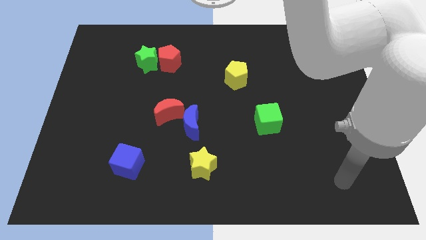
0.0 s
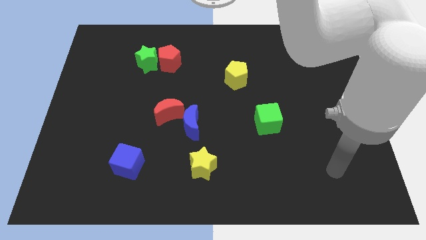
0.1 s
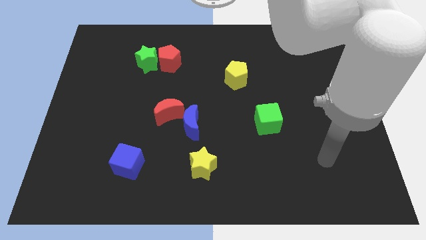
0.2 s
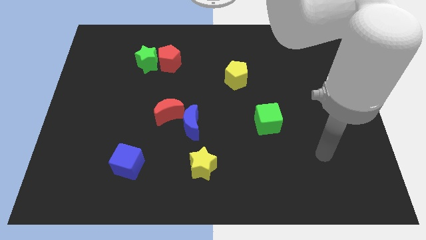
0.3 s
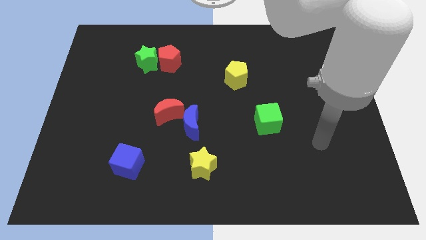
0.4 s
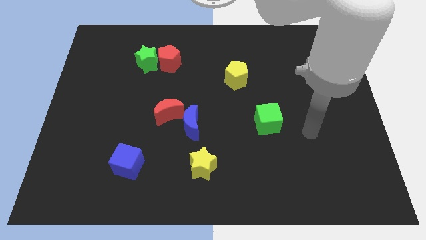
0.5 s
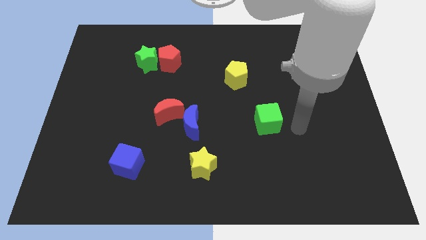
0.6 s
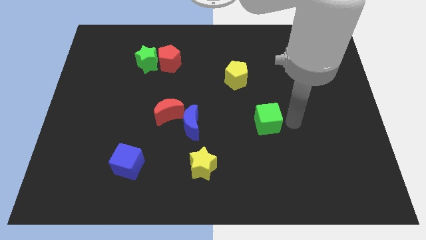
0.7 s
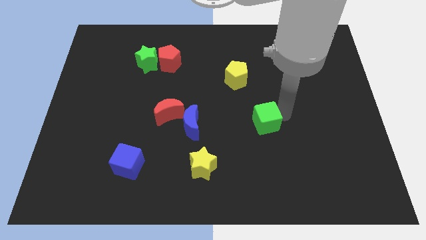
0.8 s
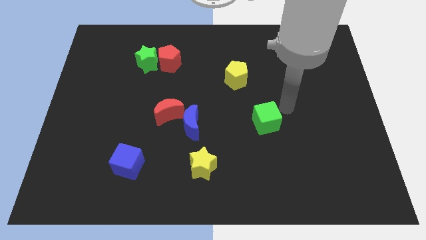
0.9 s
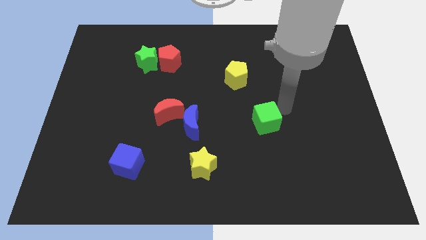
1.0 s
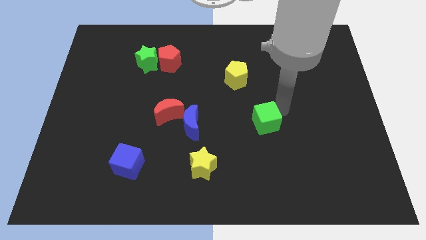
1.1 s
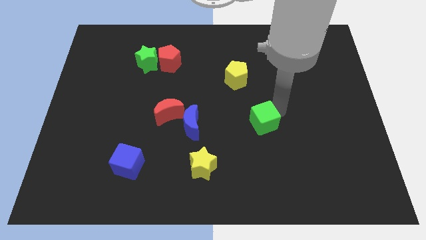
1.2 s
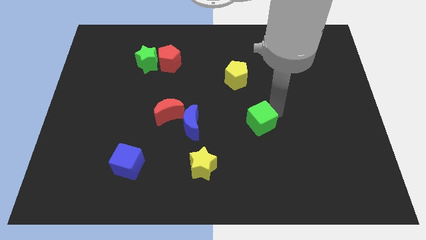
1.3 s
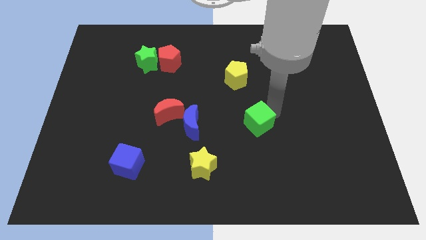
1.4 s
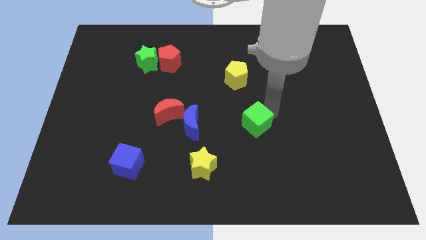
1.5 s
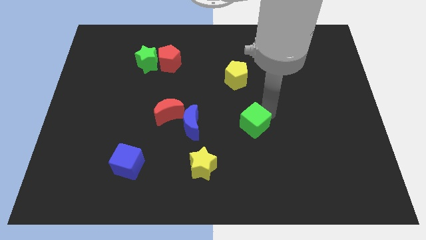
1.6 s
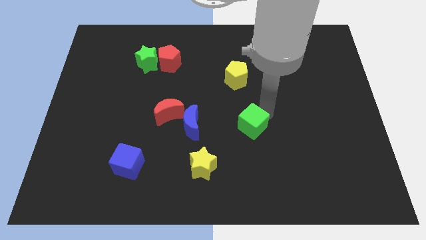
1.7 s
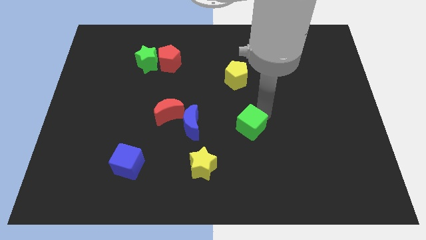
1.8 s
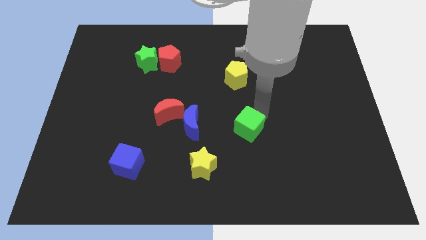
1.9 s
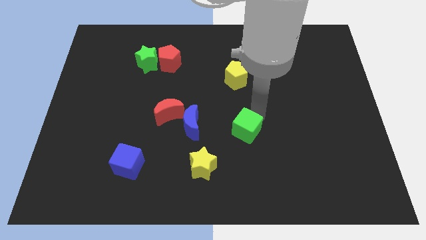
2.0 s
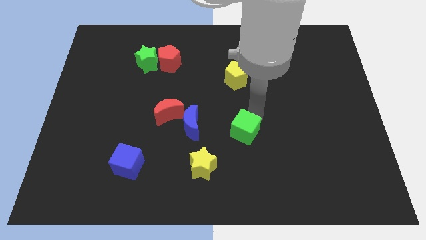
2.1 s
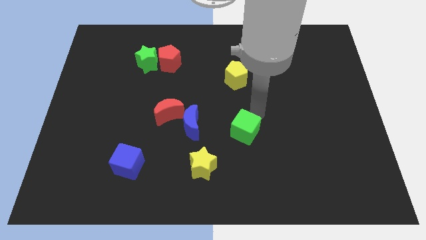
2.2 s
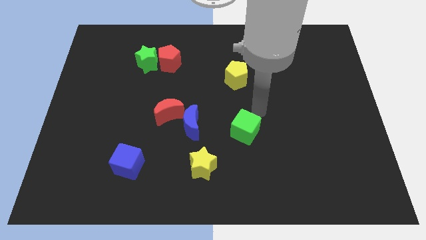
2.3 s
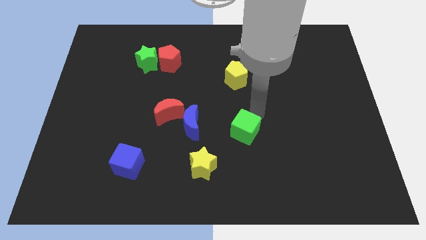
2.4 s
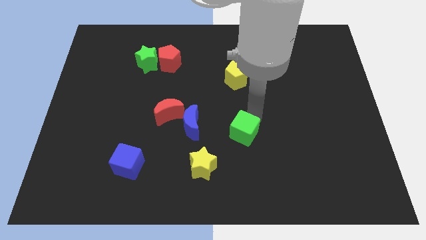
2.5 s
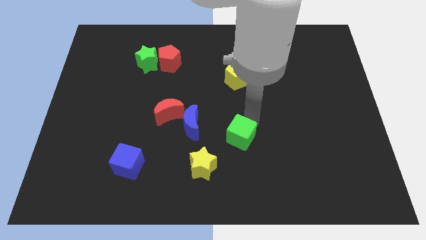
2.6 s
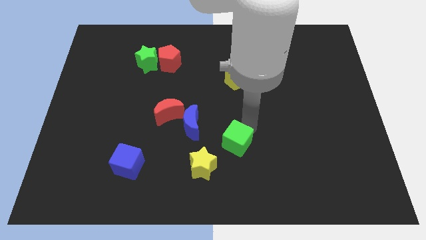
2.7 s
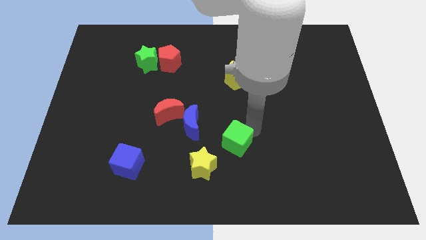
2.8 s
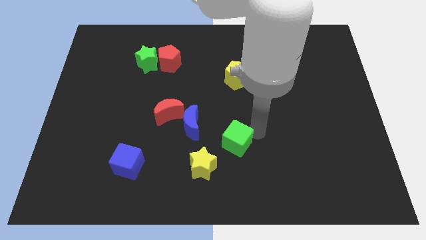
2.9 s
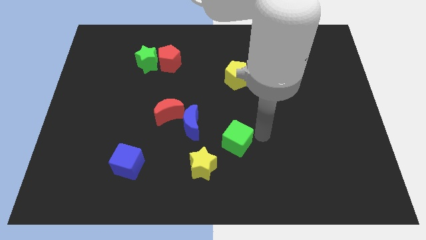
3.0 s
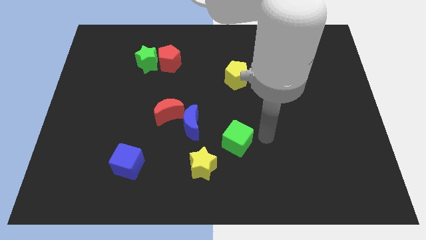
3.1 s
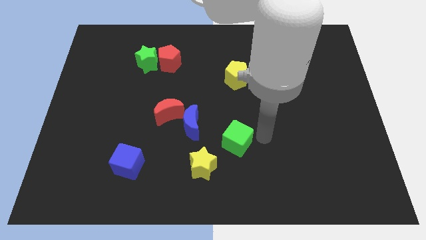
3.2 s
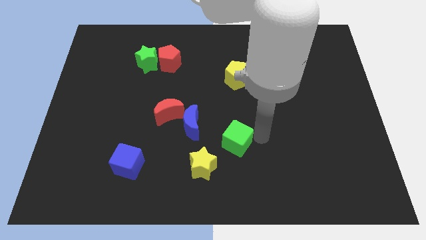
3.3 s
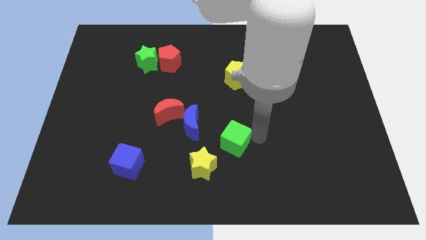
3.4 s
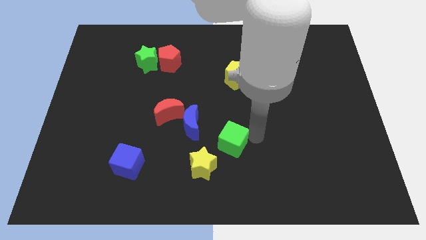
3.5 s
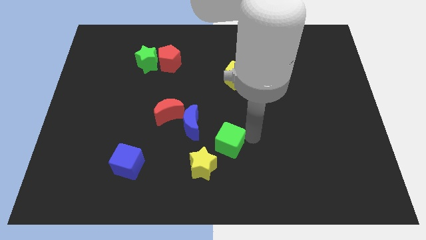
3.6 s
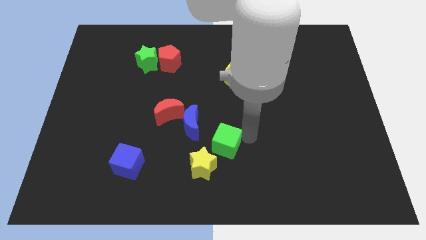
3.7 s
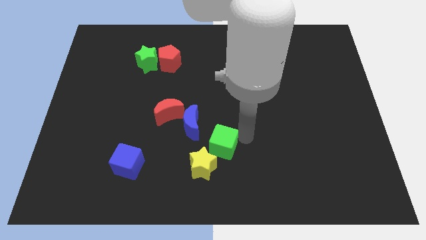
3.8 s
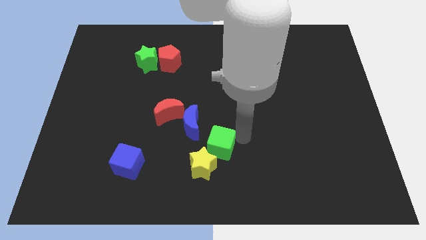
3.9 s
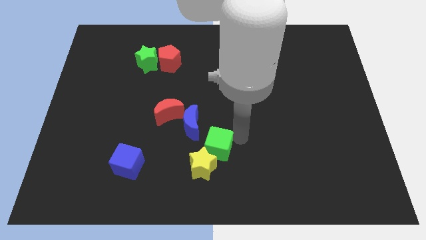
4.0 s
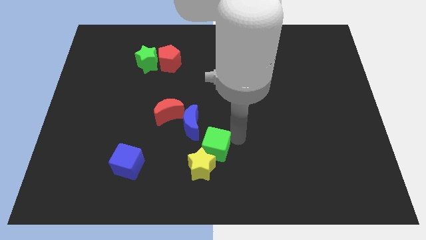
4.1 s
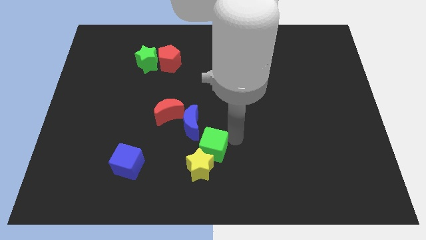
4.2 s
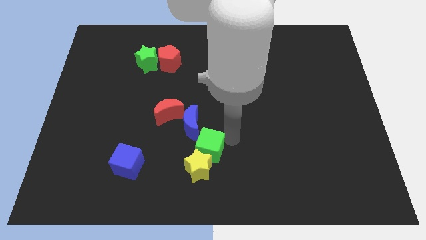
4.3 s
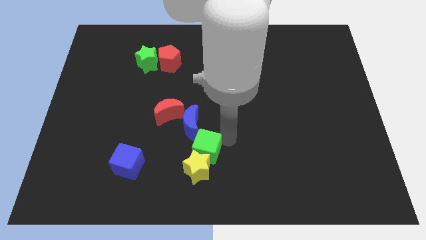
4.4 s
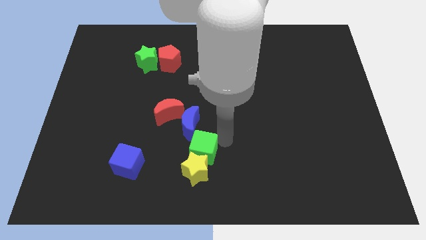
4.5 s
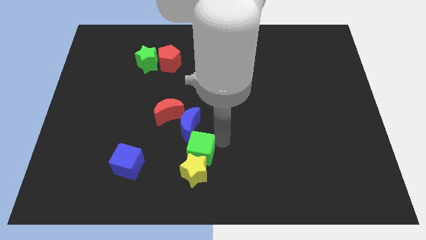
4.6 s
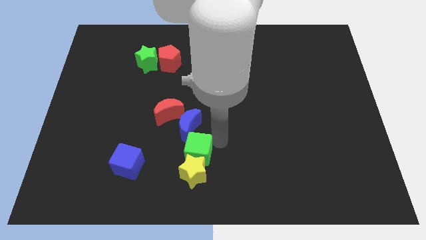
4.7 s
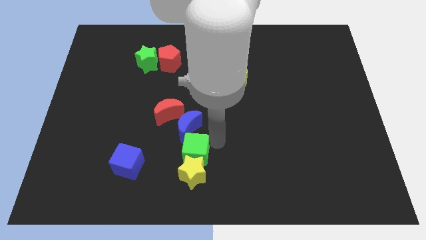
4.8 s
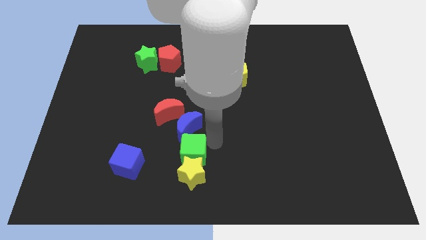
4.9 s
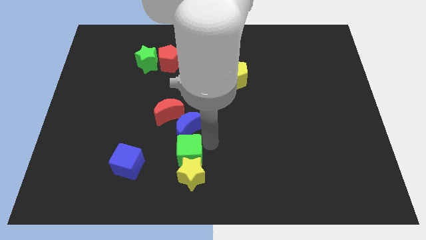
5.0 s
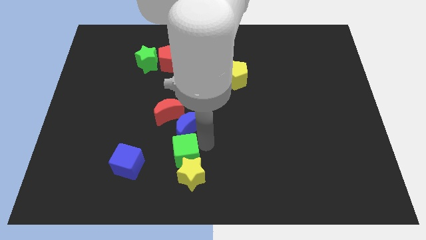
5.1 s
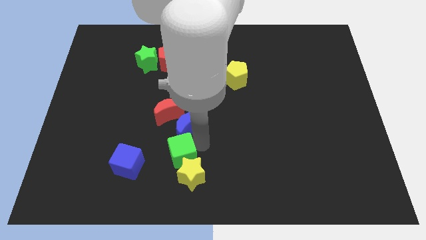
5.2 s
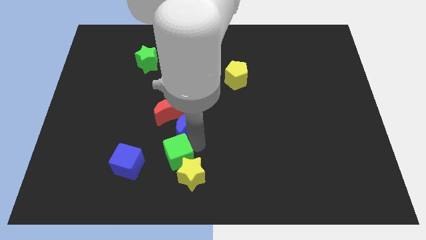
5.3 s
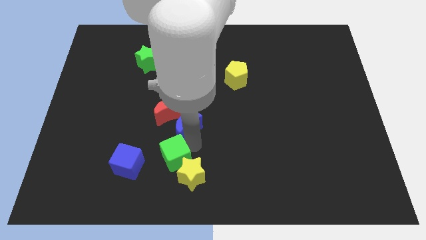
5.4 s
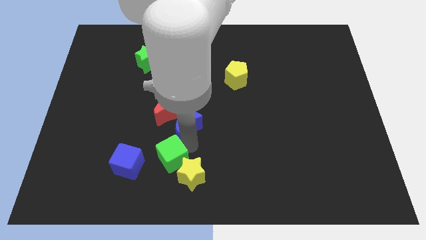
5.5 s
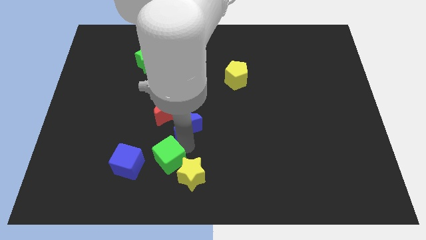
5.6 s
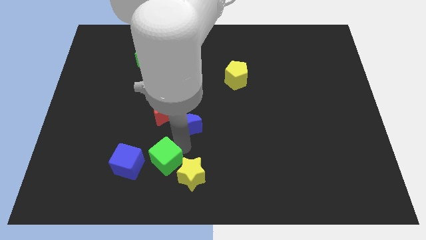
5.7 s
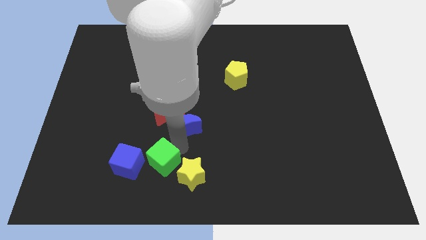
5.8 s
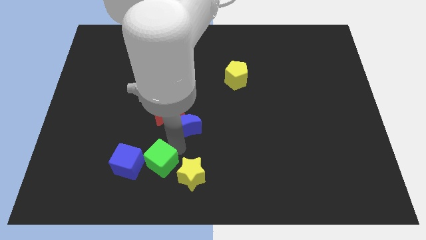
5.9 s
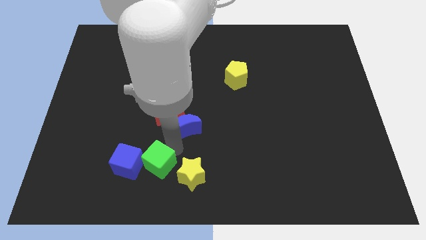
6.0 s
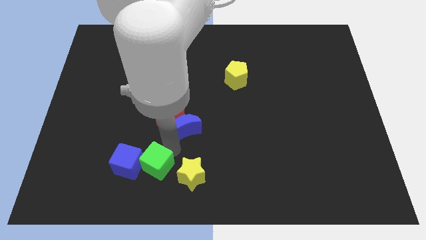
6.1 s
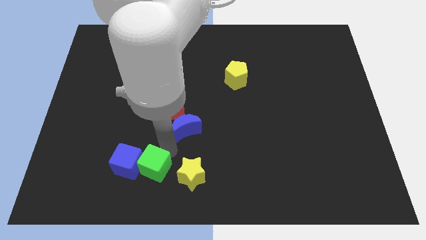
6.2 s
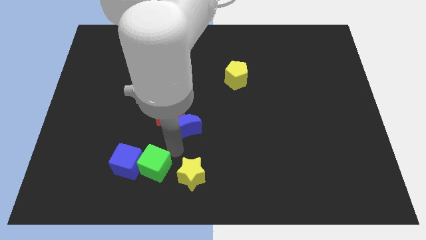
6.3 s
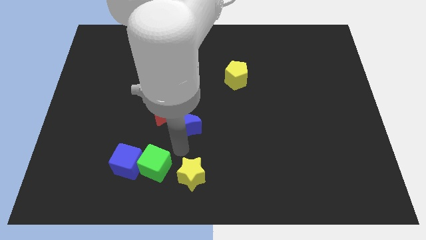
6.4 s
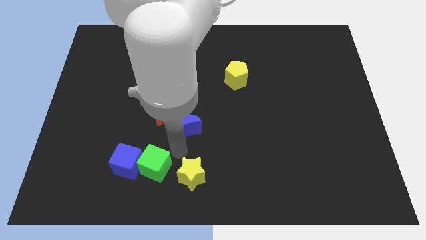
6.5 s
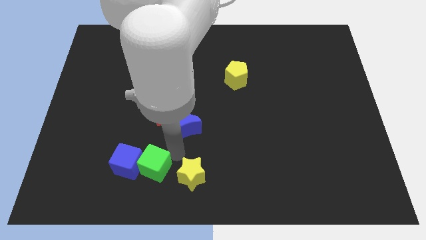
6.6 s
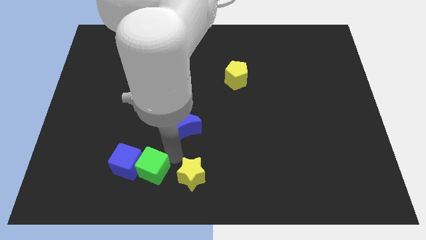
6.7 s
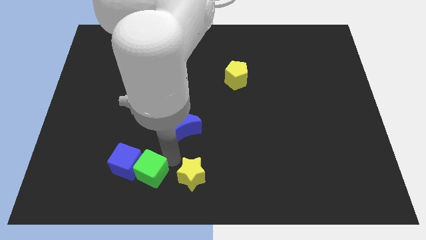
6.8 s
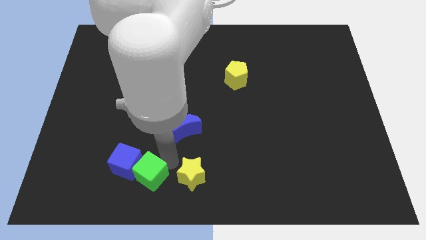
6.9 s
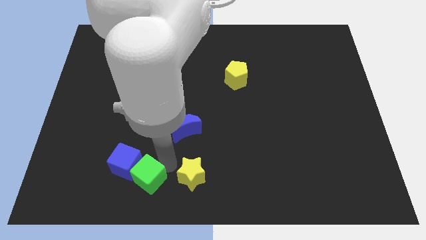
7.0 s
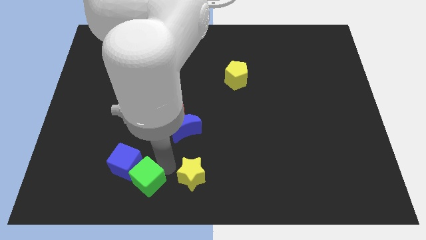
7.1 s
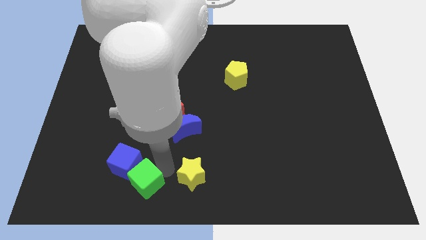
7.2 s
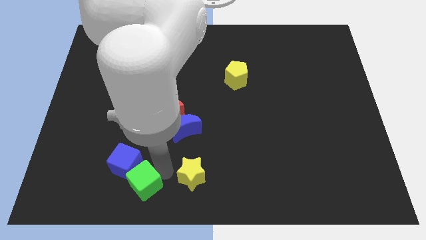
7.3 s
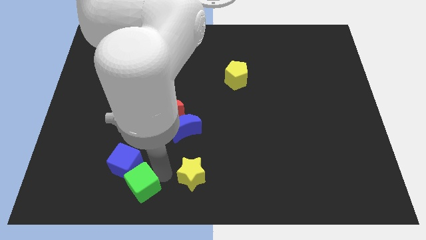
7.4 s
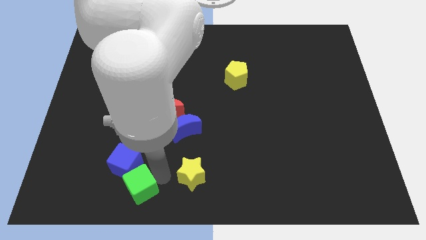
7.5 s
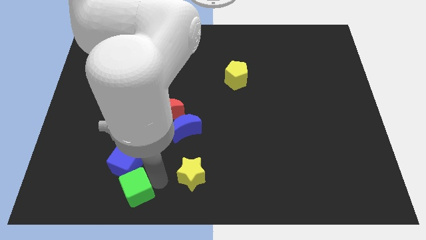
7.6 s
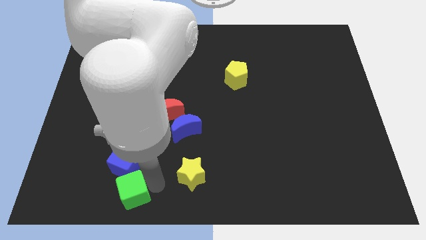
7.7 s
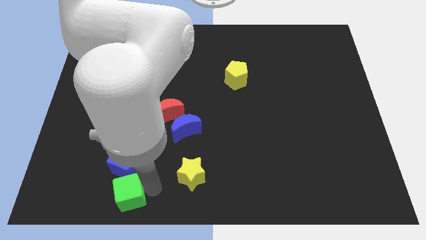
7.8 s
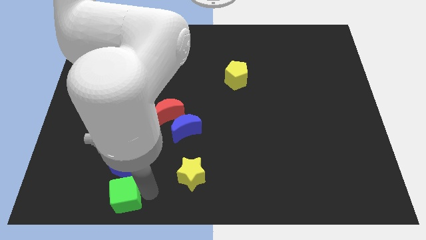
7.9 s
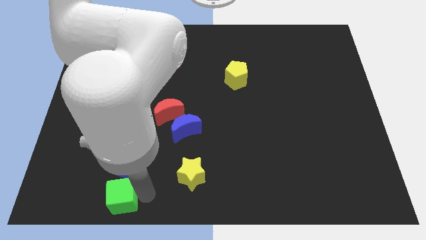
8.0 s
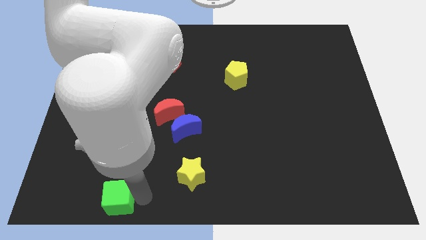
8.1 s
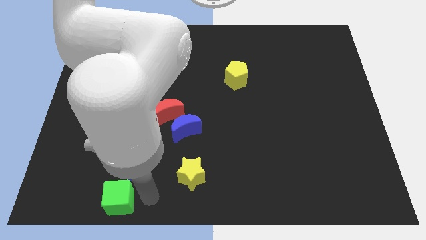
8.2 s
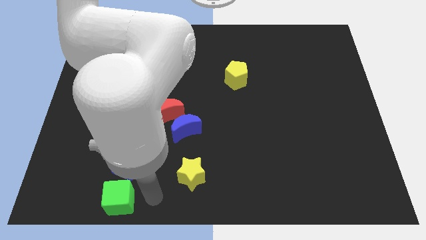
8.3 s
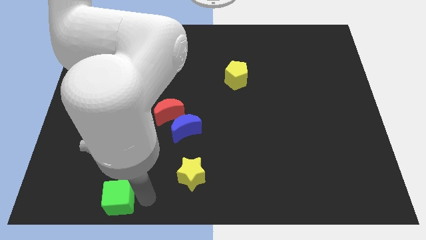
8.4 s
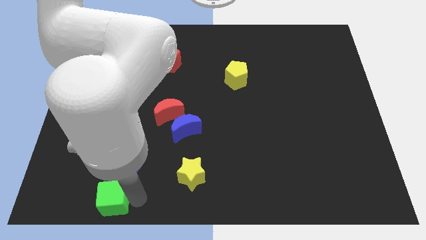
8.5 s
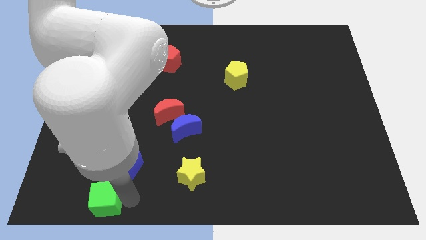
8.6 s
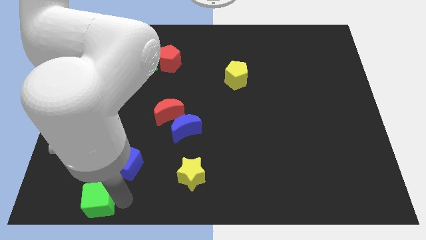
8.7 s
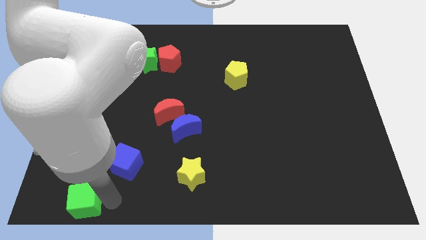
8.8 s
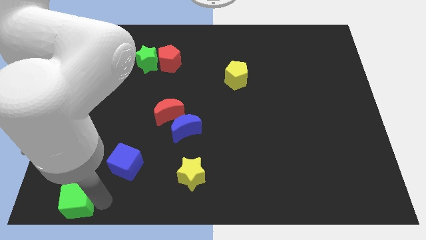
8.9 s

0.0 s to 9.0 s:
move the green cube to the lower left corner
